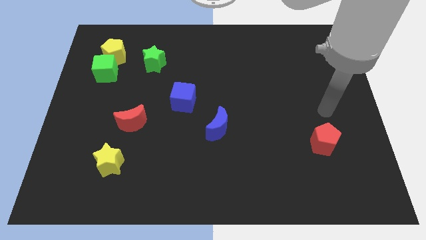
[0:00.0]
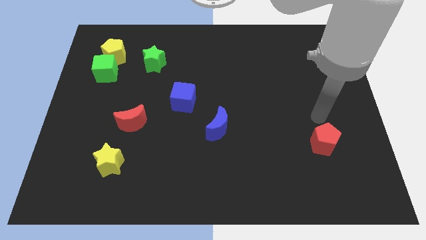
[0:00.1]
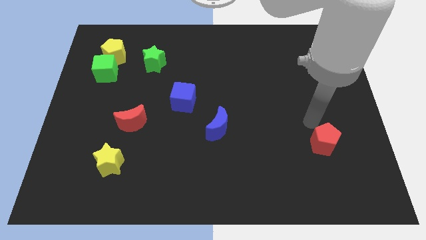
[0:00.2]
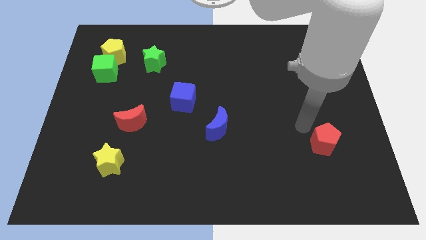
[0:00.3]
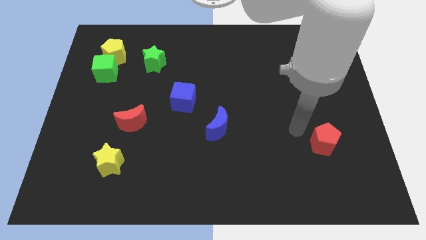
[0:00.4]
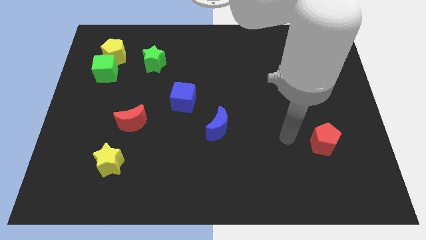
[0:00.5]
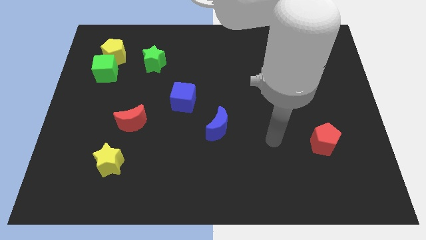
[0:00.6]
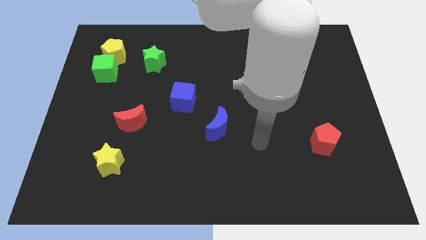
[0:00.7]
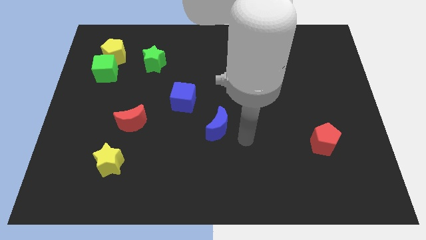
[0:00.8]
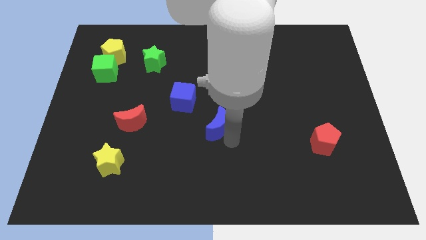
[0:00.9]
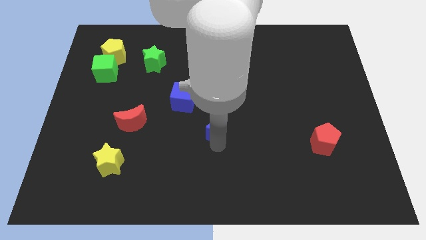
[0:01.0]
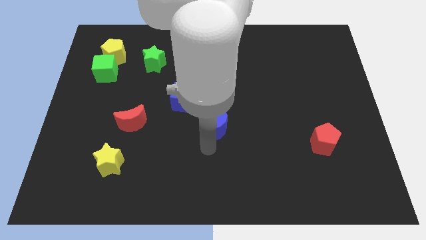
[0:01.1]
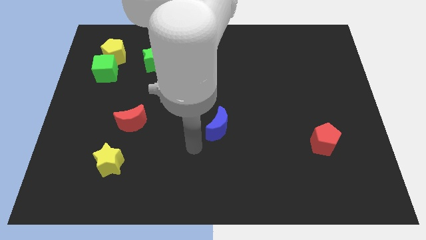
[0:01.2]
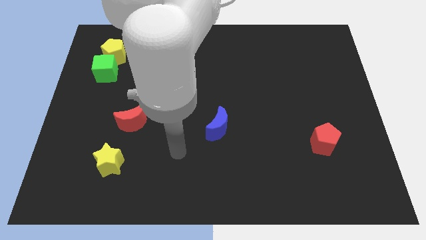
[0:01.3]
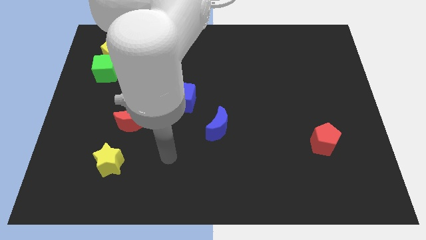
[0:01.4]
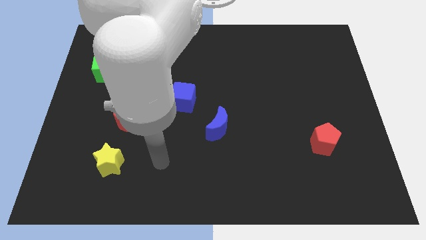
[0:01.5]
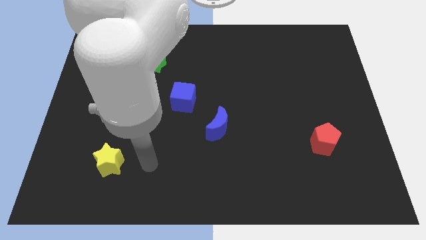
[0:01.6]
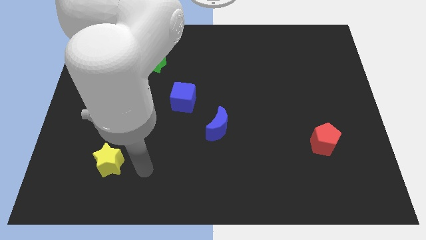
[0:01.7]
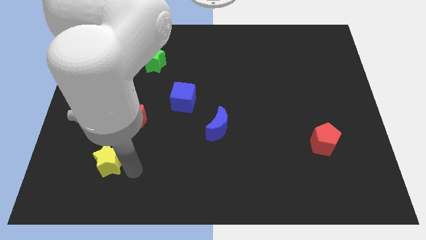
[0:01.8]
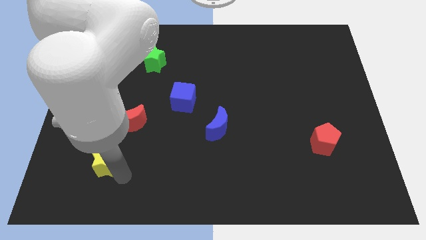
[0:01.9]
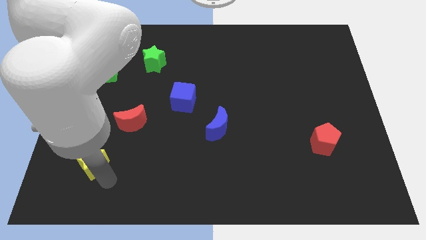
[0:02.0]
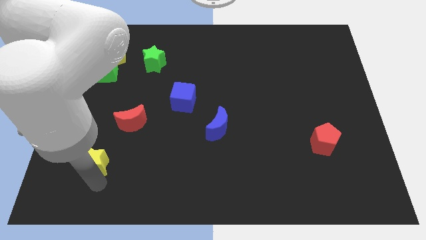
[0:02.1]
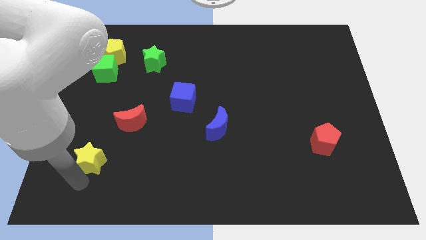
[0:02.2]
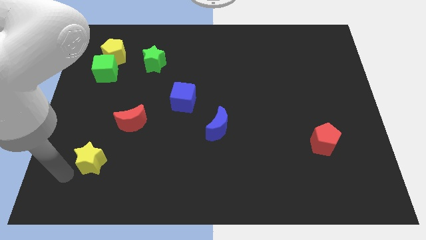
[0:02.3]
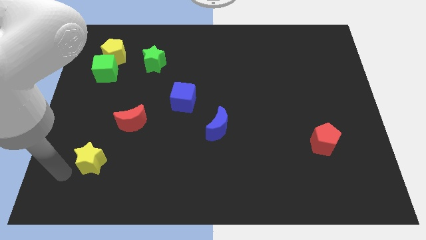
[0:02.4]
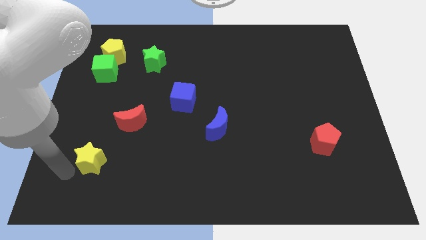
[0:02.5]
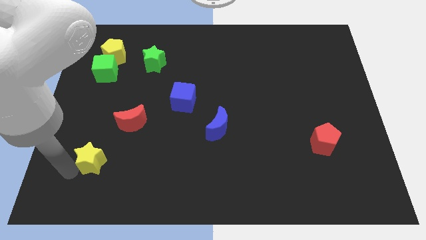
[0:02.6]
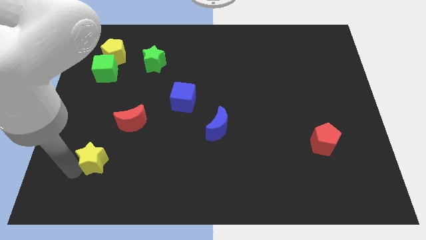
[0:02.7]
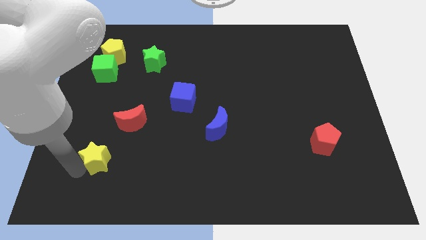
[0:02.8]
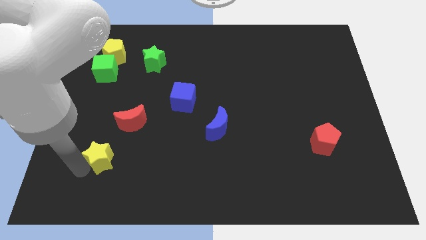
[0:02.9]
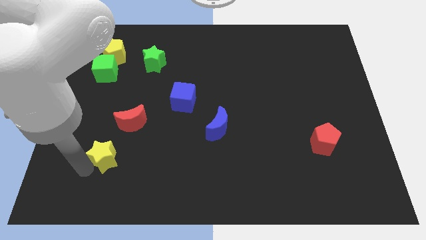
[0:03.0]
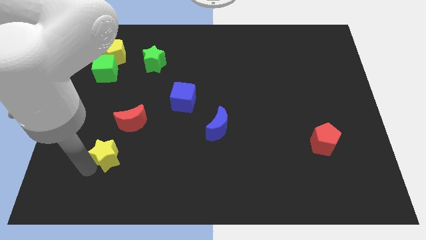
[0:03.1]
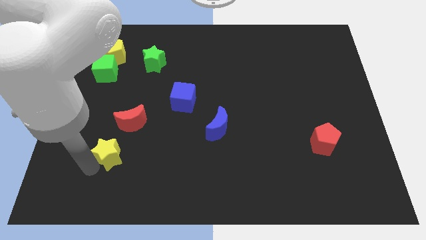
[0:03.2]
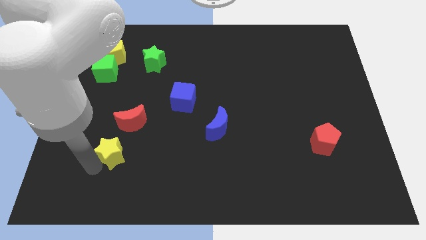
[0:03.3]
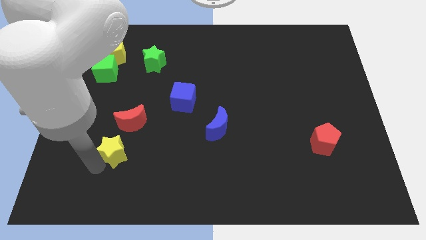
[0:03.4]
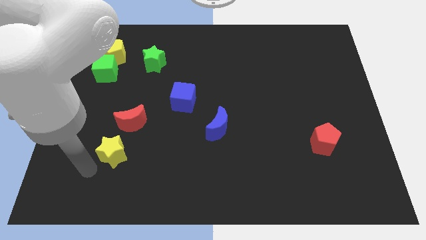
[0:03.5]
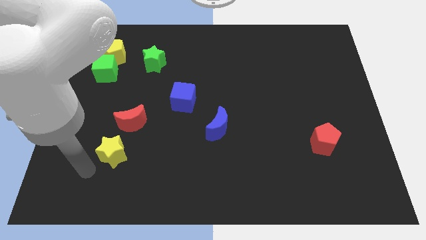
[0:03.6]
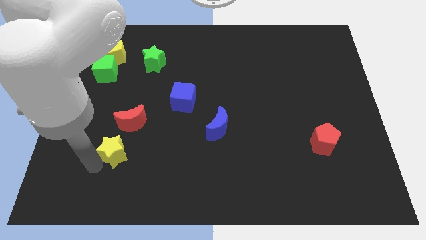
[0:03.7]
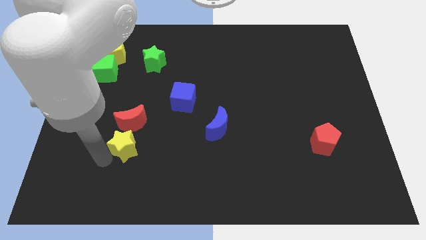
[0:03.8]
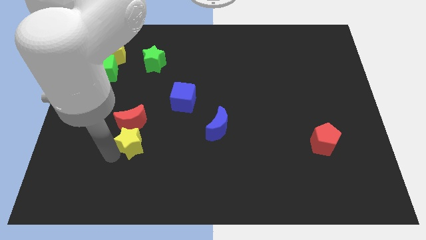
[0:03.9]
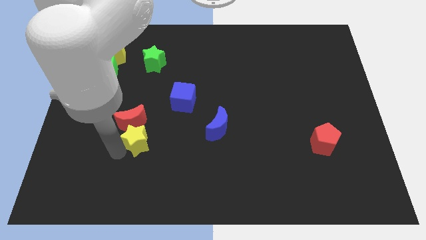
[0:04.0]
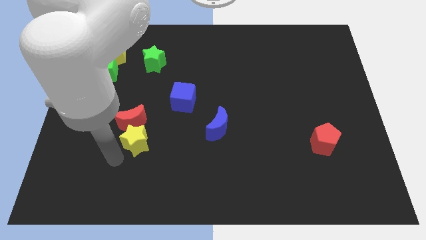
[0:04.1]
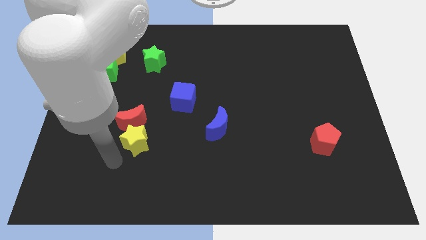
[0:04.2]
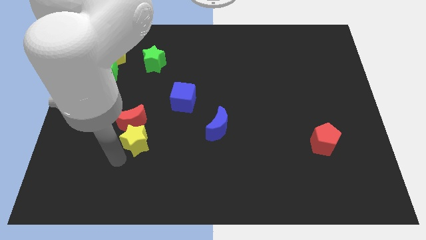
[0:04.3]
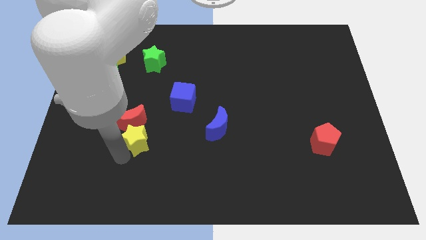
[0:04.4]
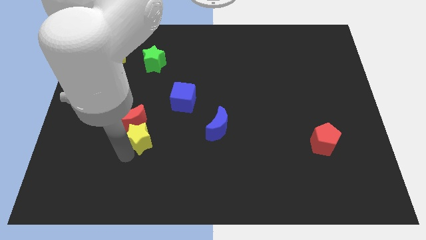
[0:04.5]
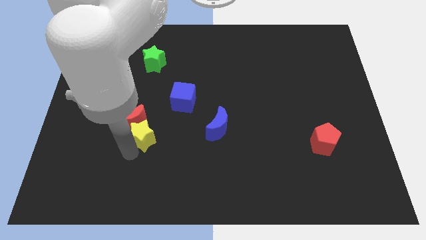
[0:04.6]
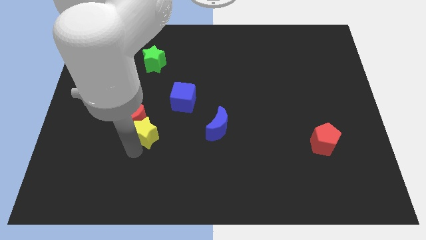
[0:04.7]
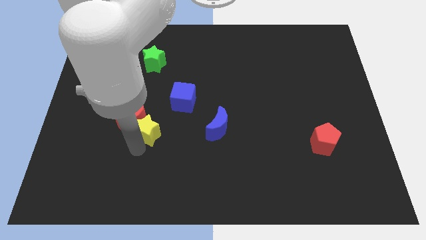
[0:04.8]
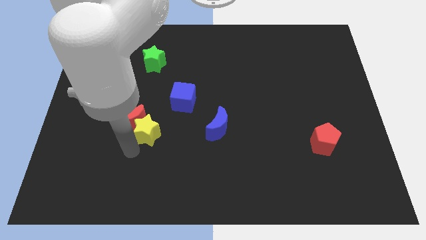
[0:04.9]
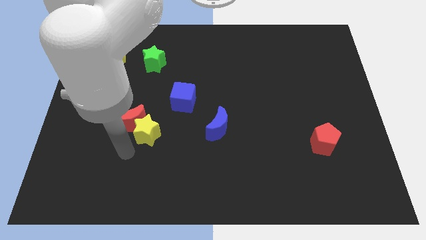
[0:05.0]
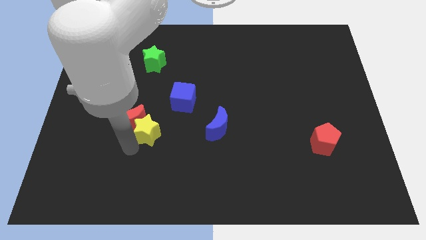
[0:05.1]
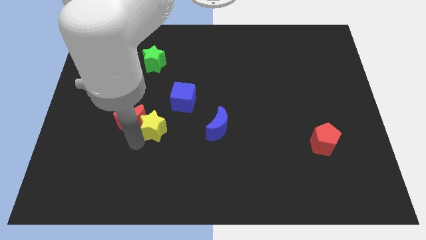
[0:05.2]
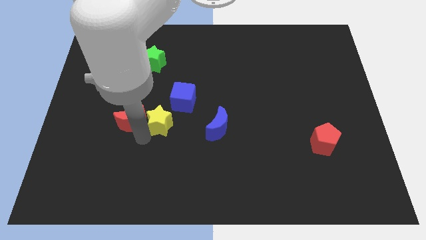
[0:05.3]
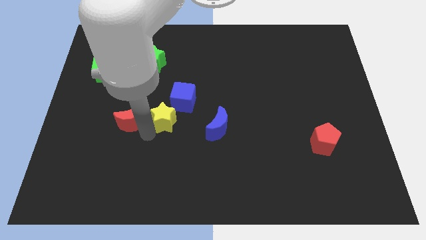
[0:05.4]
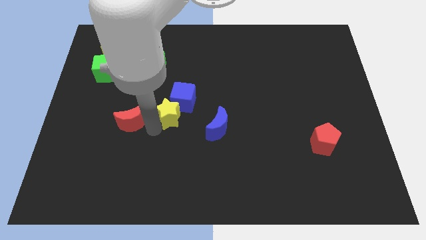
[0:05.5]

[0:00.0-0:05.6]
push the yellow star close to the blue cube

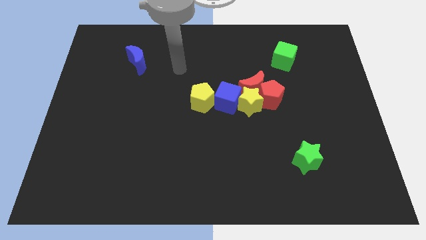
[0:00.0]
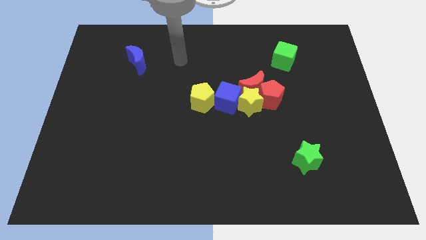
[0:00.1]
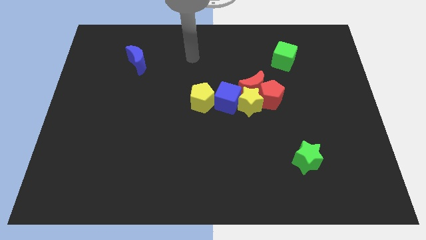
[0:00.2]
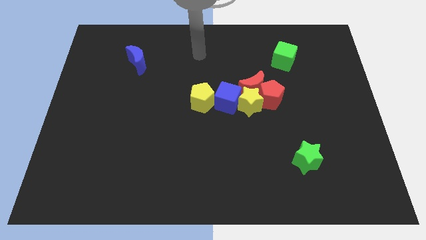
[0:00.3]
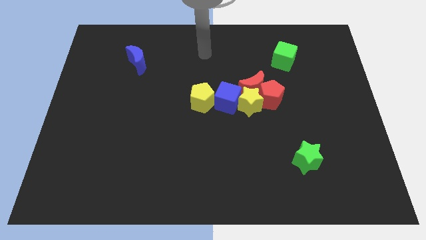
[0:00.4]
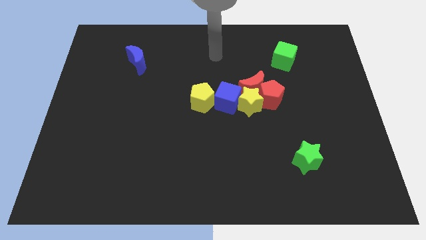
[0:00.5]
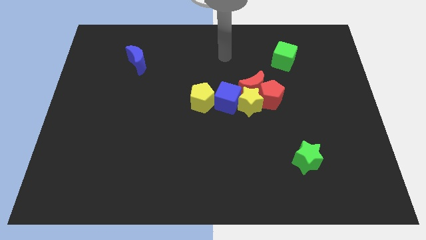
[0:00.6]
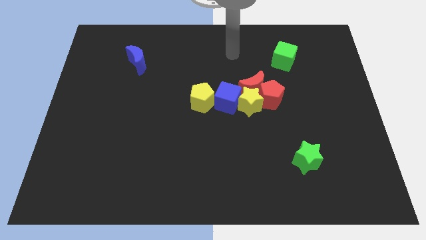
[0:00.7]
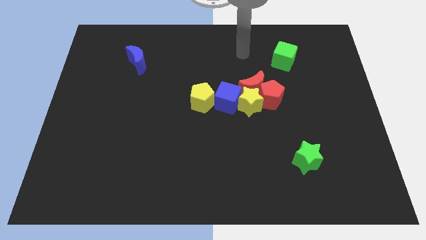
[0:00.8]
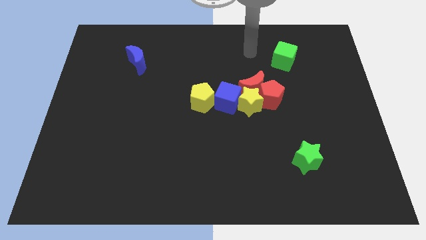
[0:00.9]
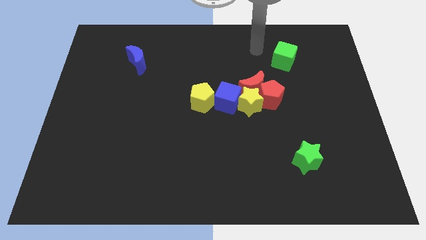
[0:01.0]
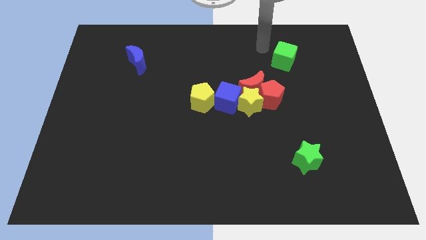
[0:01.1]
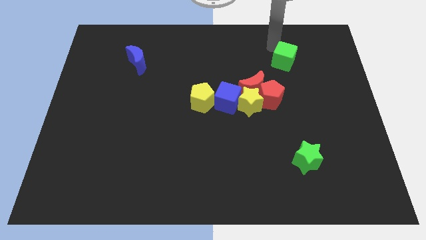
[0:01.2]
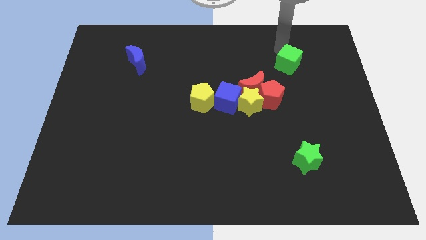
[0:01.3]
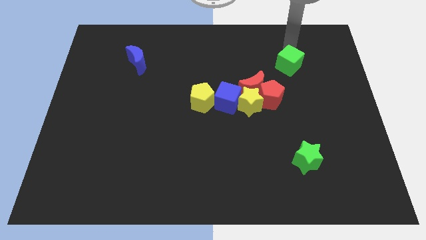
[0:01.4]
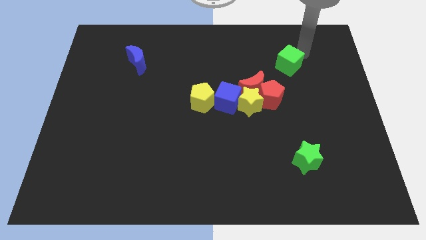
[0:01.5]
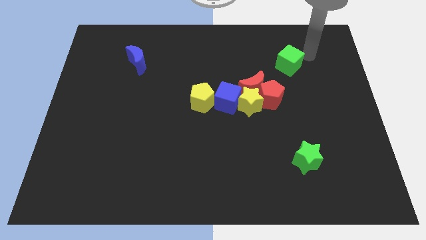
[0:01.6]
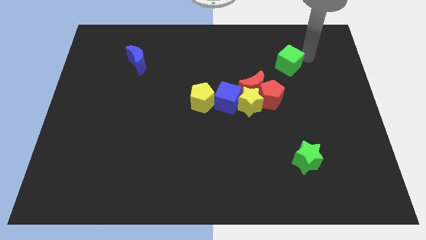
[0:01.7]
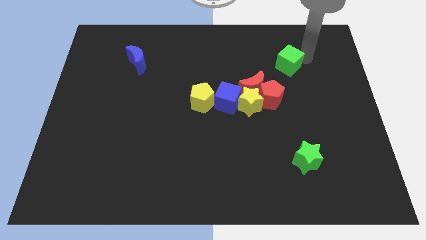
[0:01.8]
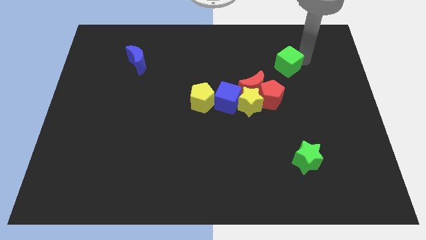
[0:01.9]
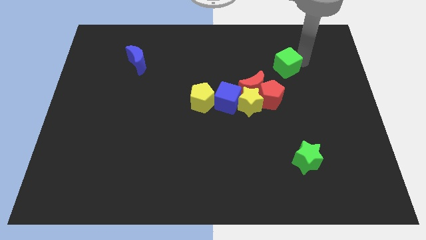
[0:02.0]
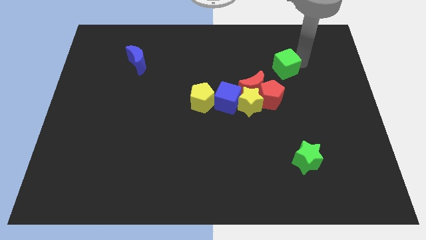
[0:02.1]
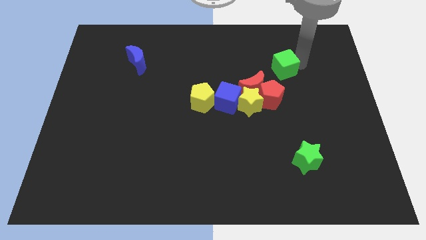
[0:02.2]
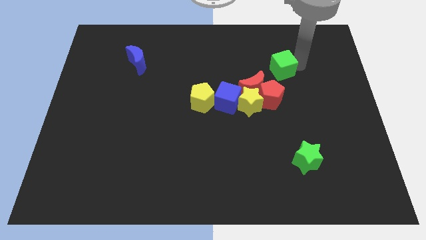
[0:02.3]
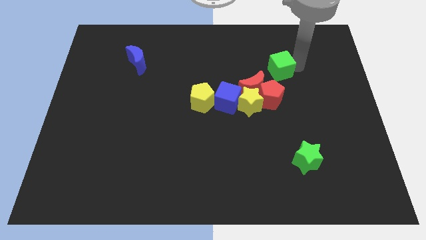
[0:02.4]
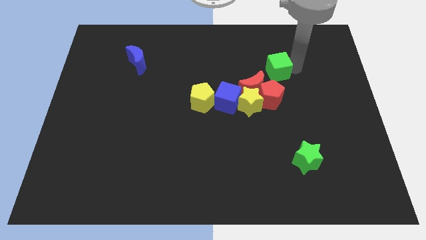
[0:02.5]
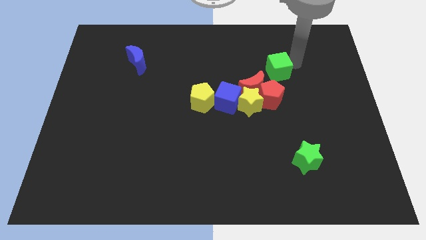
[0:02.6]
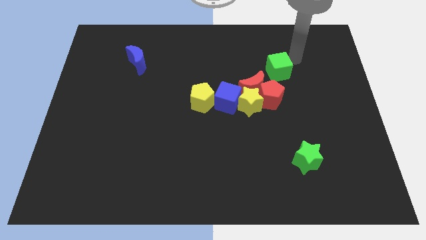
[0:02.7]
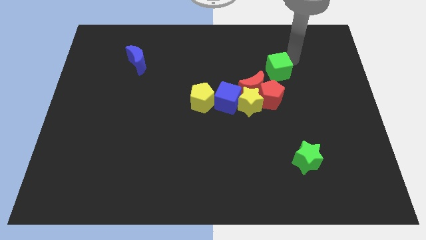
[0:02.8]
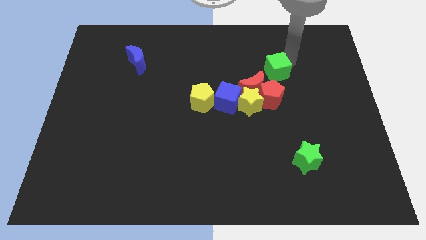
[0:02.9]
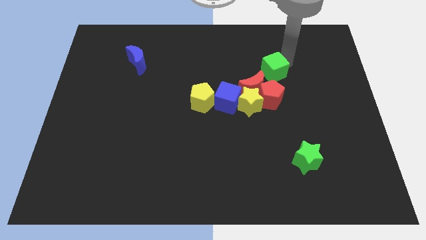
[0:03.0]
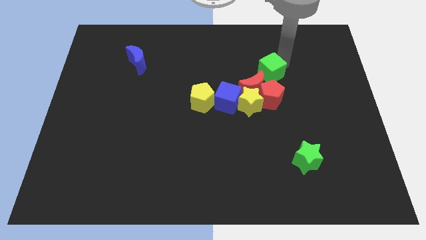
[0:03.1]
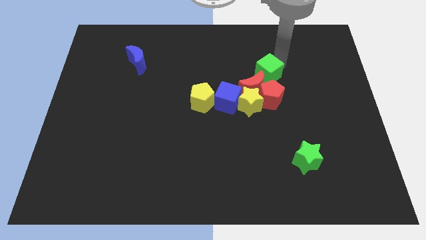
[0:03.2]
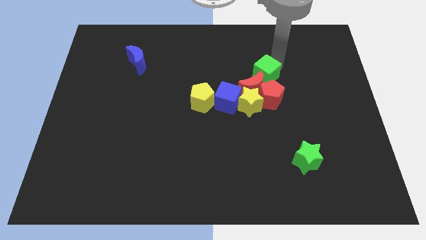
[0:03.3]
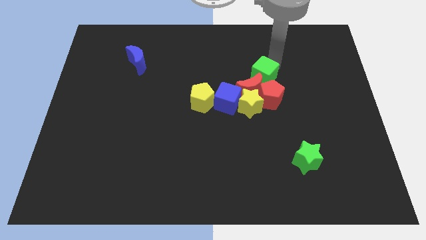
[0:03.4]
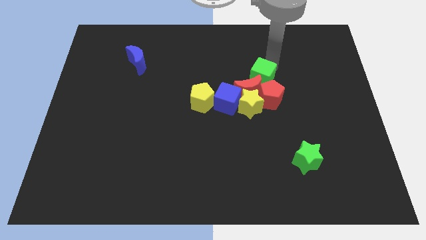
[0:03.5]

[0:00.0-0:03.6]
move the green cube next to the red moon
